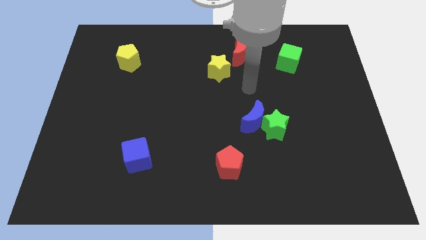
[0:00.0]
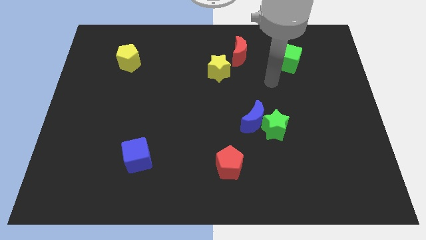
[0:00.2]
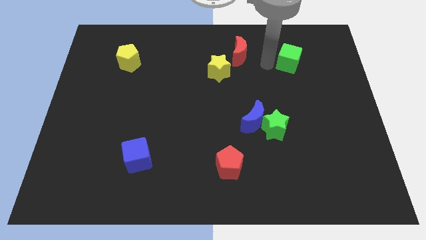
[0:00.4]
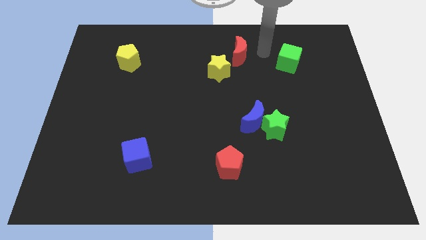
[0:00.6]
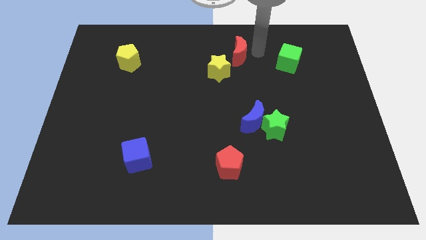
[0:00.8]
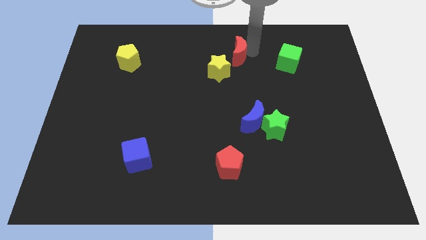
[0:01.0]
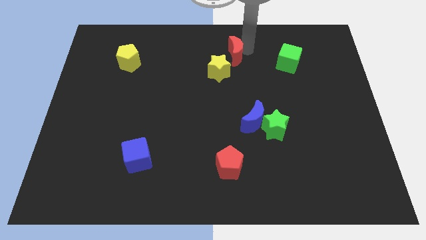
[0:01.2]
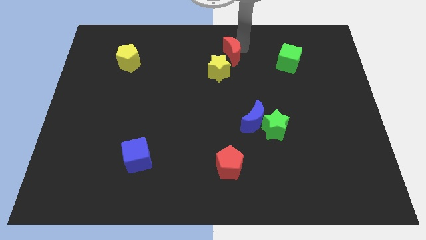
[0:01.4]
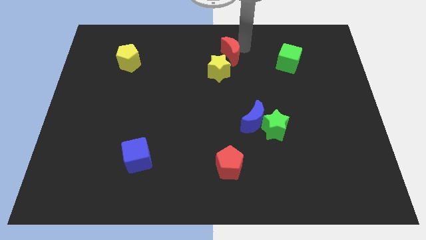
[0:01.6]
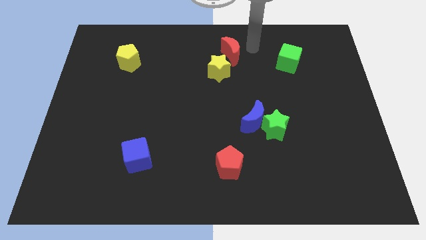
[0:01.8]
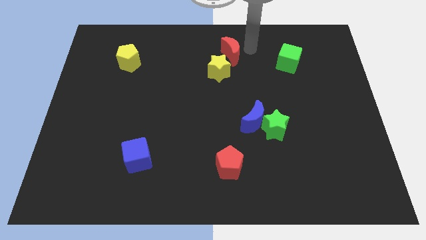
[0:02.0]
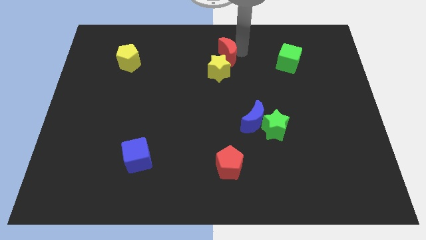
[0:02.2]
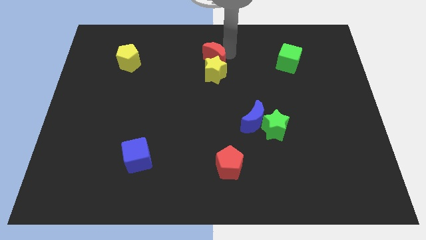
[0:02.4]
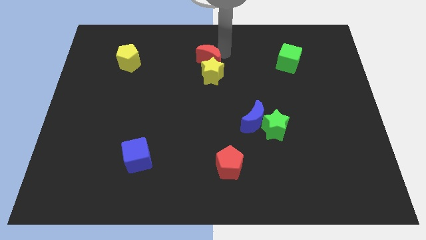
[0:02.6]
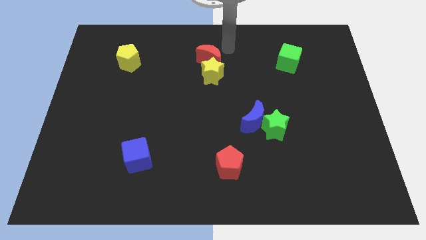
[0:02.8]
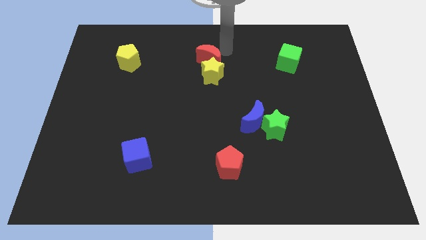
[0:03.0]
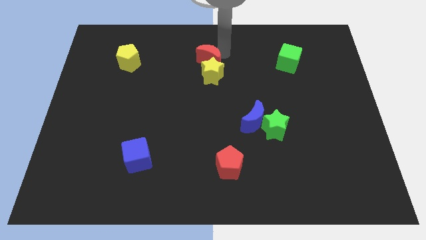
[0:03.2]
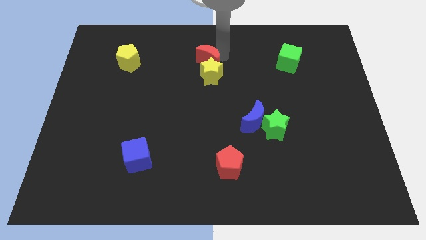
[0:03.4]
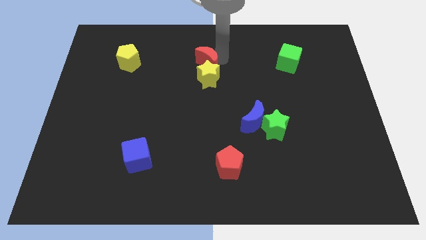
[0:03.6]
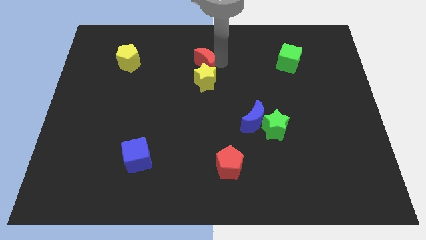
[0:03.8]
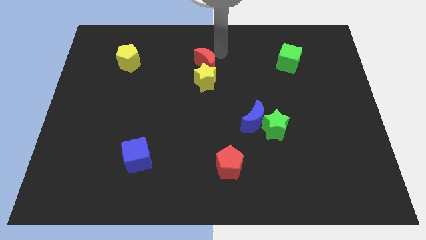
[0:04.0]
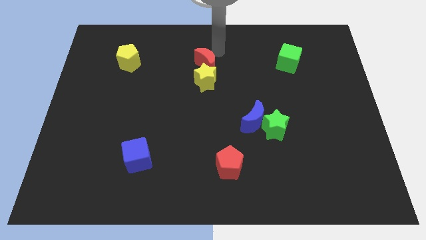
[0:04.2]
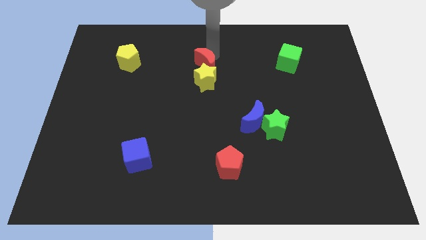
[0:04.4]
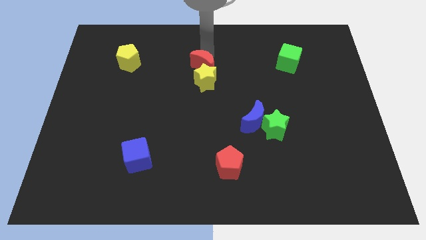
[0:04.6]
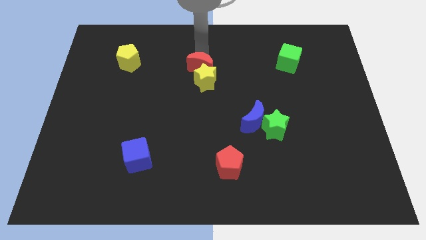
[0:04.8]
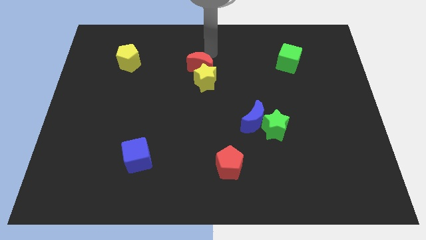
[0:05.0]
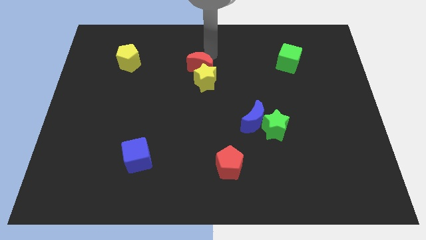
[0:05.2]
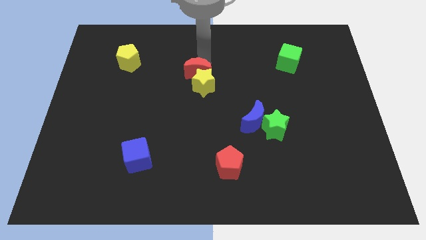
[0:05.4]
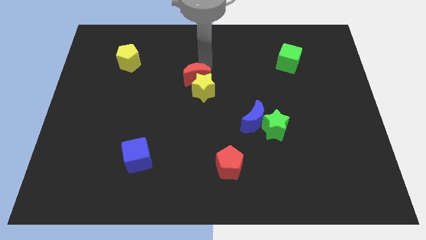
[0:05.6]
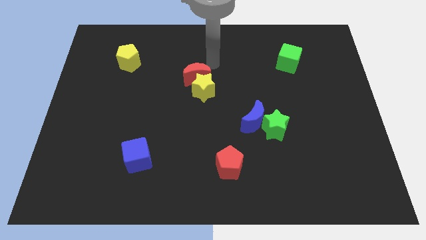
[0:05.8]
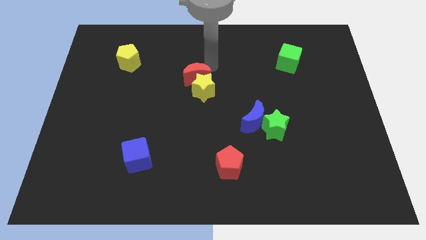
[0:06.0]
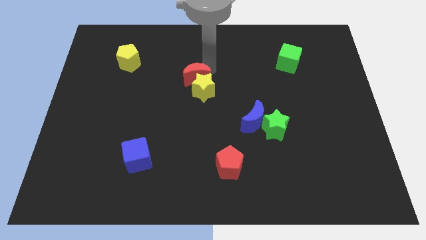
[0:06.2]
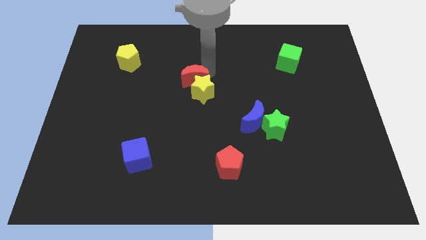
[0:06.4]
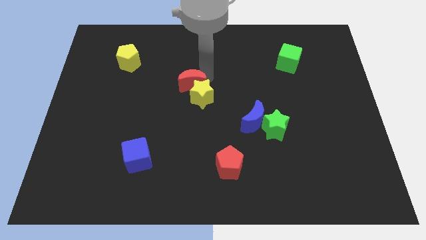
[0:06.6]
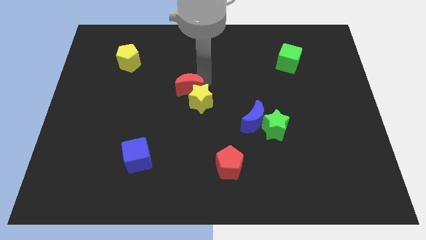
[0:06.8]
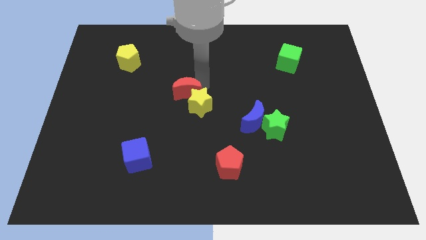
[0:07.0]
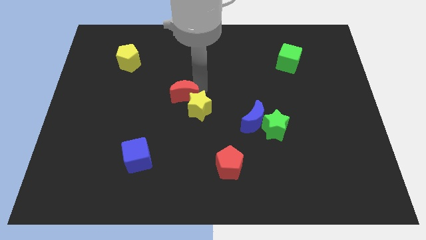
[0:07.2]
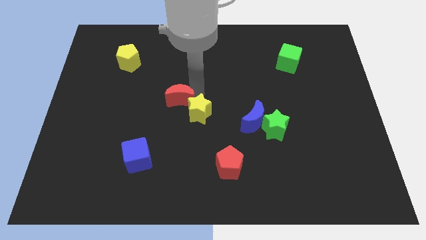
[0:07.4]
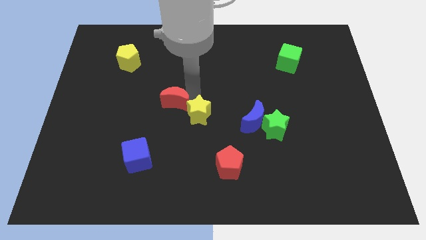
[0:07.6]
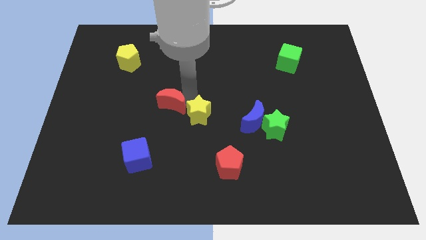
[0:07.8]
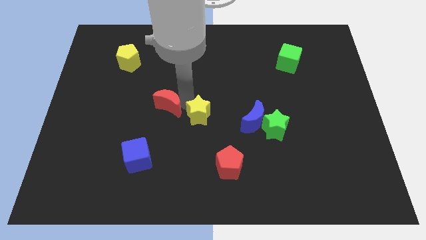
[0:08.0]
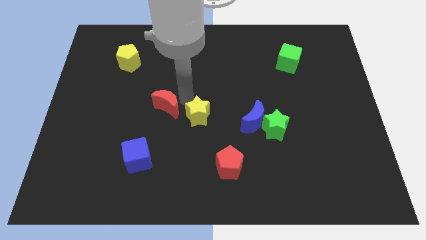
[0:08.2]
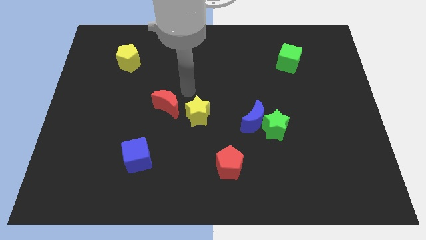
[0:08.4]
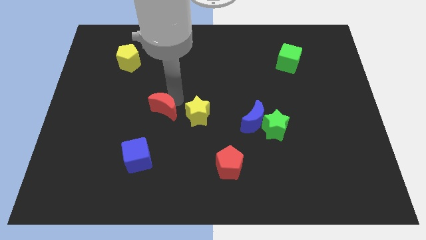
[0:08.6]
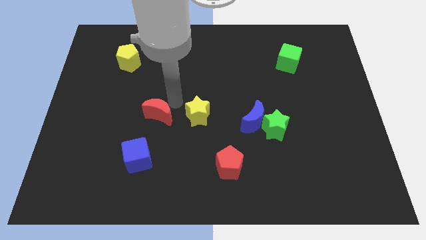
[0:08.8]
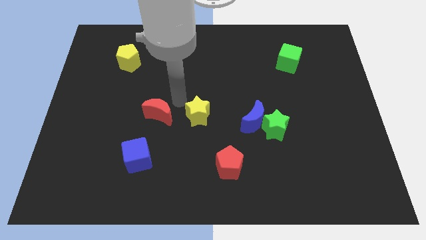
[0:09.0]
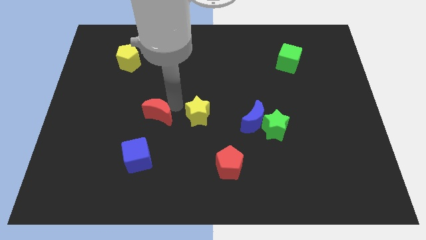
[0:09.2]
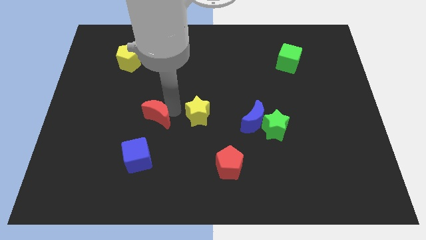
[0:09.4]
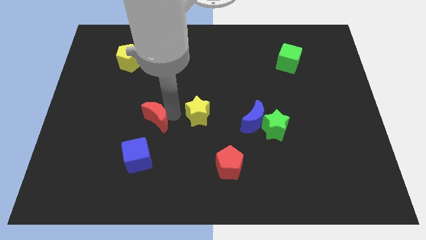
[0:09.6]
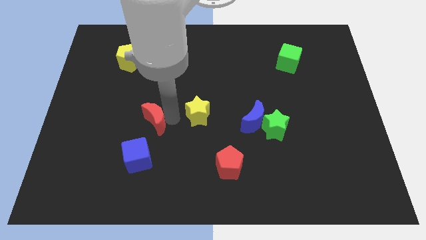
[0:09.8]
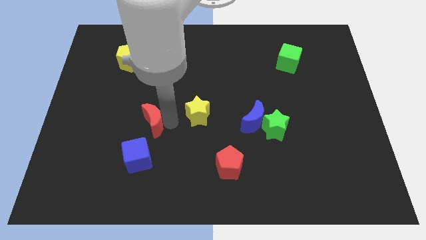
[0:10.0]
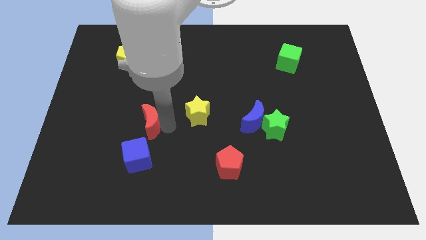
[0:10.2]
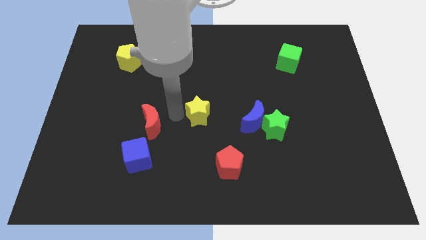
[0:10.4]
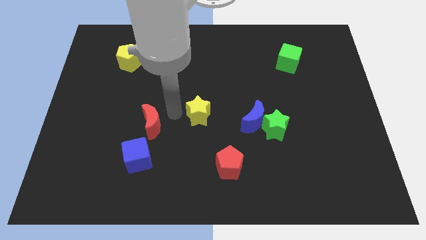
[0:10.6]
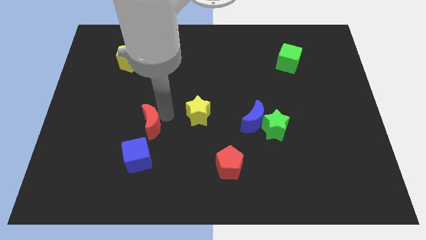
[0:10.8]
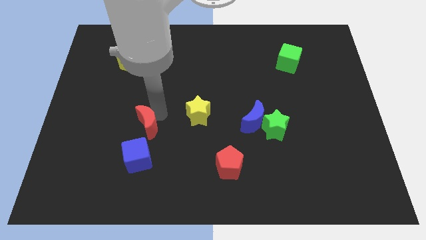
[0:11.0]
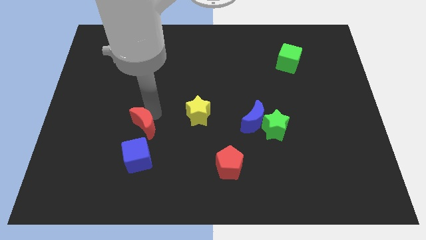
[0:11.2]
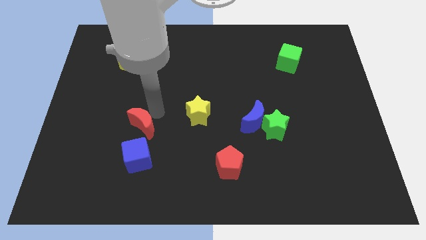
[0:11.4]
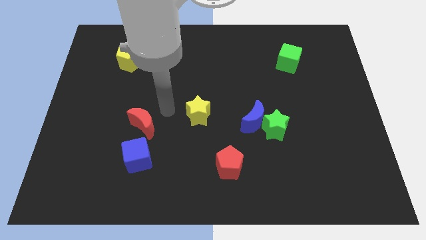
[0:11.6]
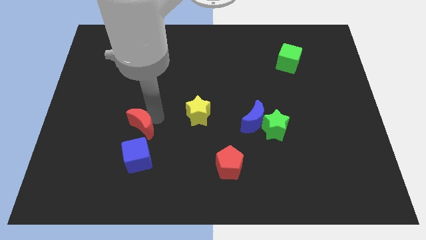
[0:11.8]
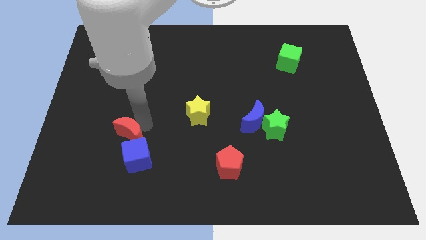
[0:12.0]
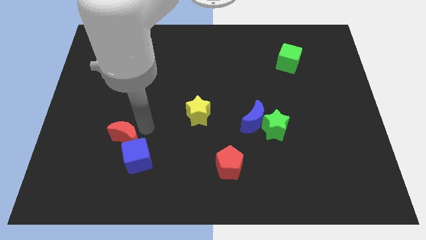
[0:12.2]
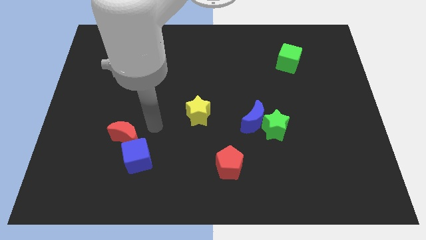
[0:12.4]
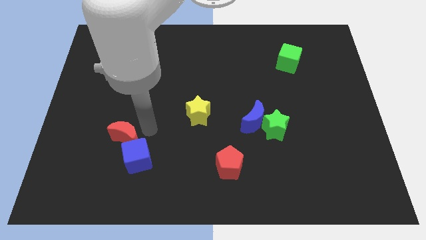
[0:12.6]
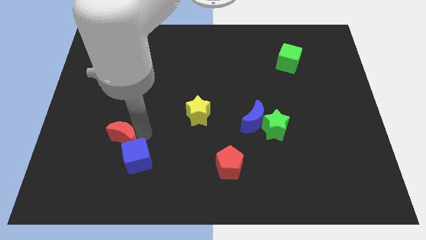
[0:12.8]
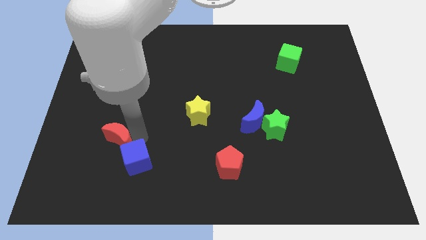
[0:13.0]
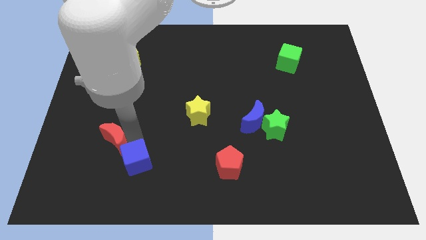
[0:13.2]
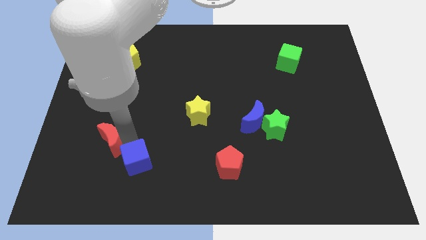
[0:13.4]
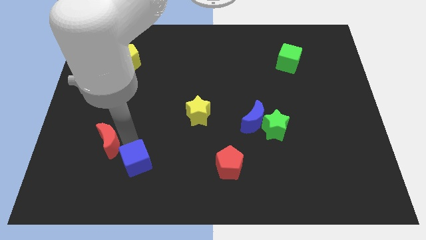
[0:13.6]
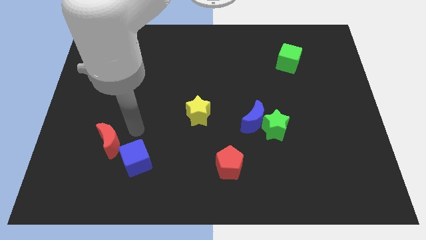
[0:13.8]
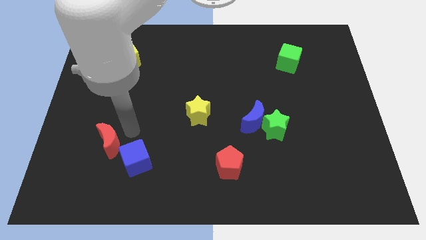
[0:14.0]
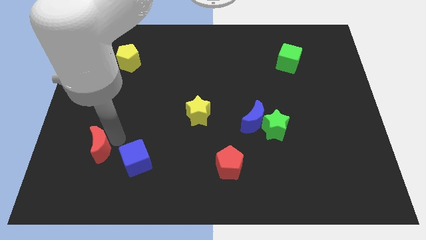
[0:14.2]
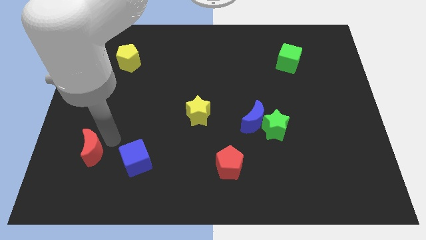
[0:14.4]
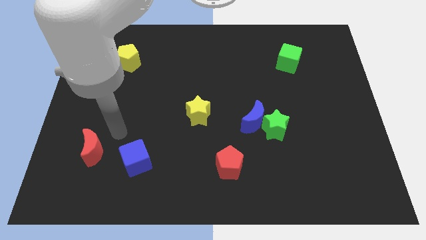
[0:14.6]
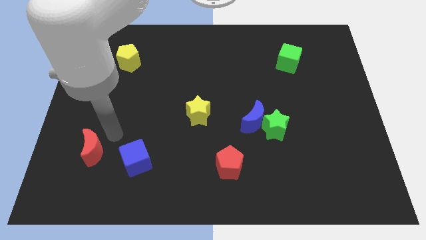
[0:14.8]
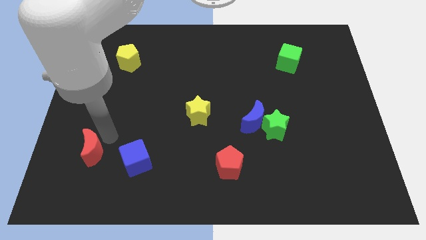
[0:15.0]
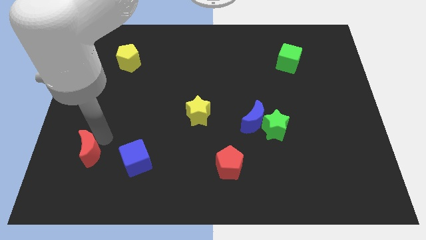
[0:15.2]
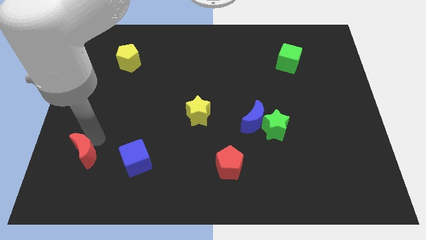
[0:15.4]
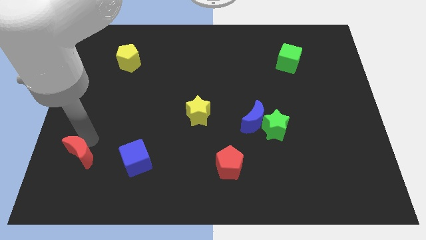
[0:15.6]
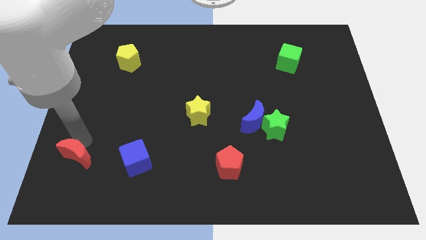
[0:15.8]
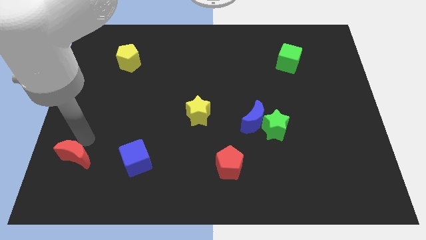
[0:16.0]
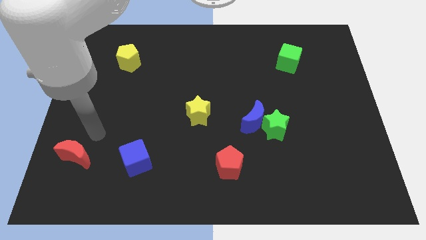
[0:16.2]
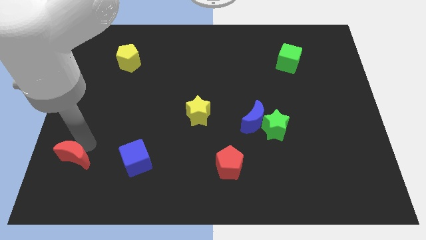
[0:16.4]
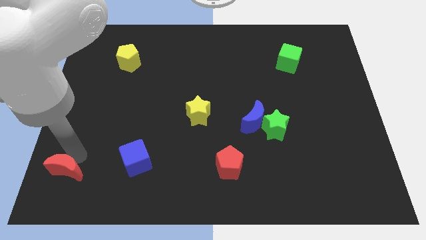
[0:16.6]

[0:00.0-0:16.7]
slide the red moon to the bottom left of the board
